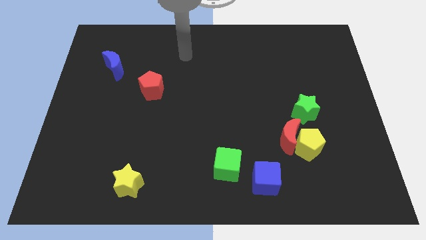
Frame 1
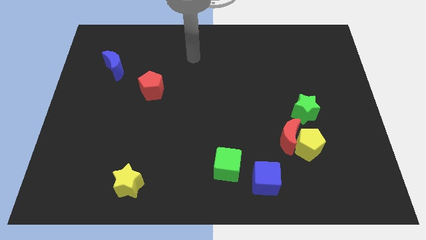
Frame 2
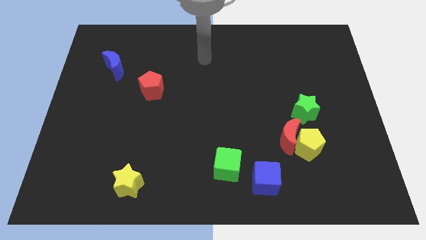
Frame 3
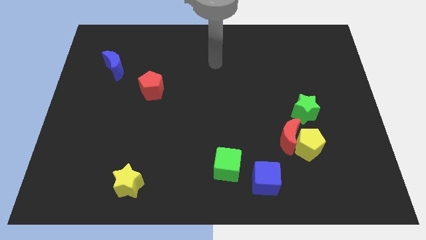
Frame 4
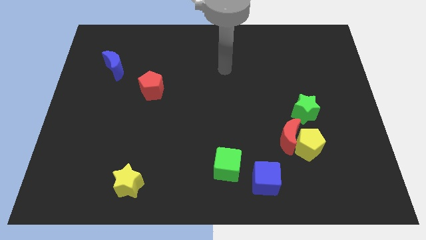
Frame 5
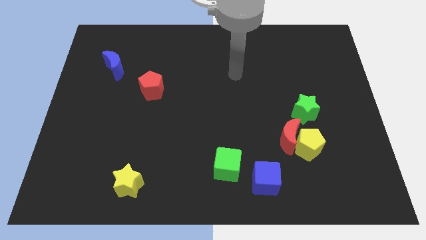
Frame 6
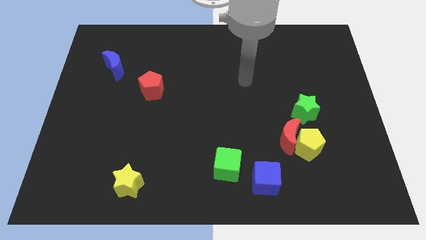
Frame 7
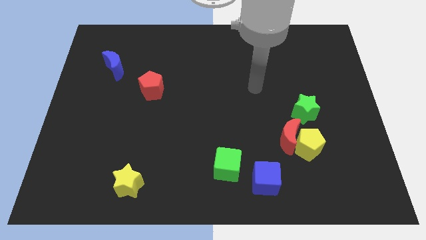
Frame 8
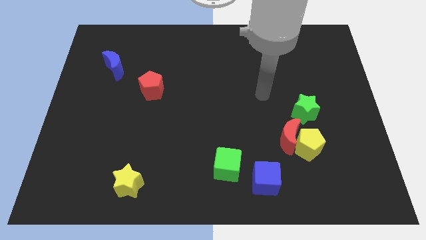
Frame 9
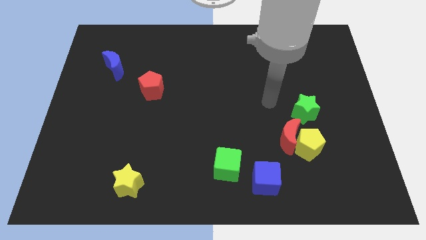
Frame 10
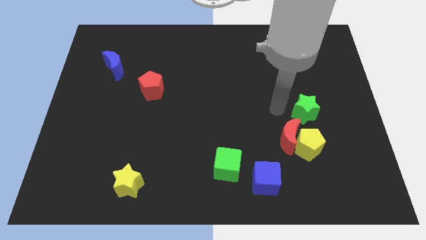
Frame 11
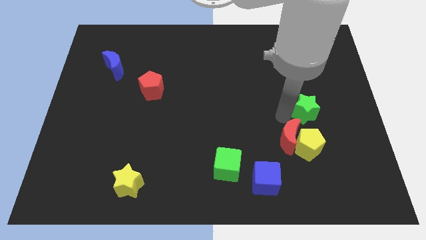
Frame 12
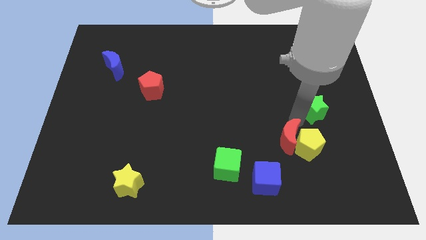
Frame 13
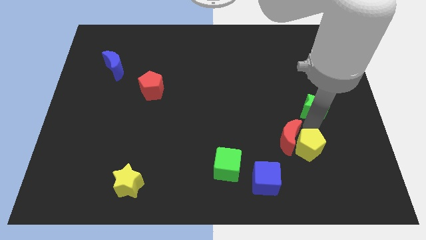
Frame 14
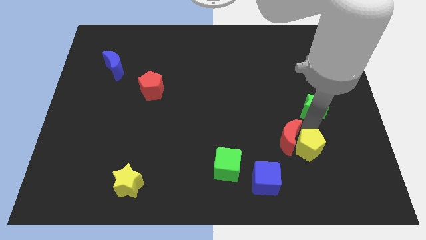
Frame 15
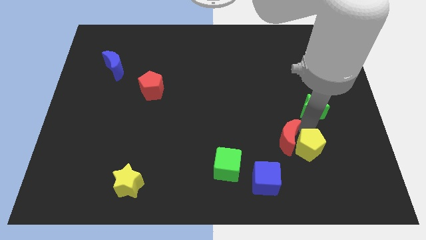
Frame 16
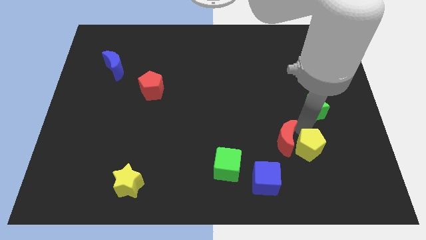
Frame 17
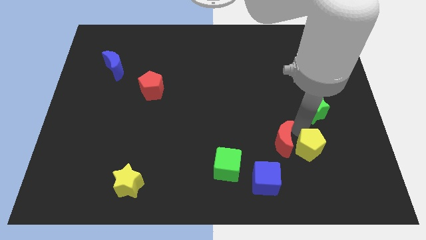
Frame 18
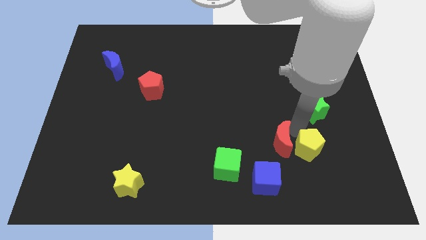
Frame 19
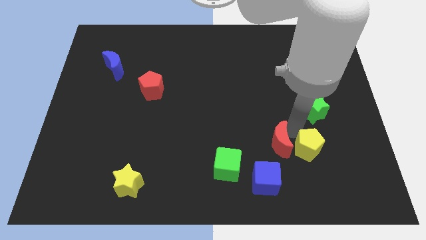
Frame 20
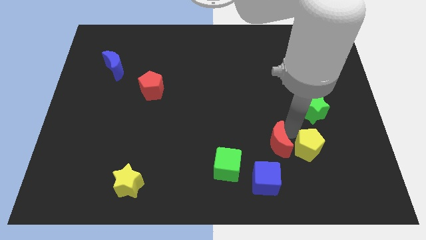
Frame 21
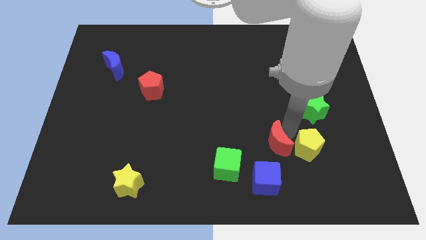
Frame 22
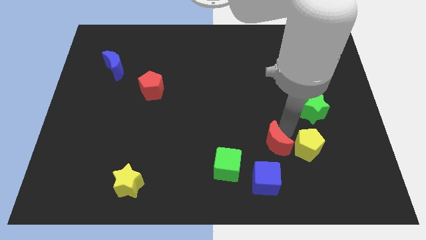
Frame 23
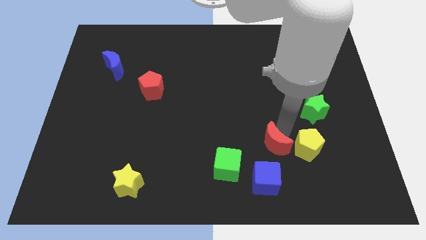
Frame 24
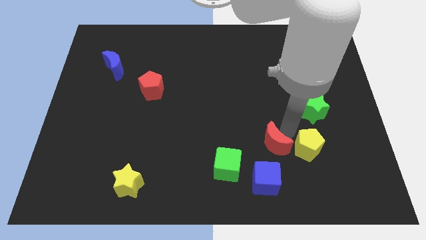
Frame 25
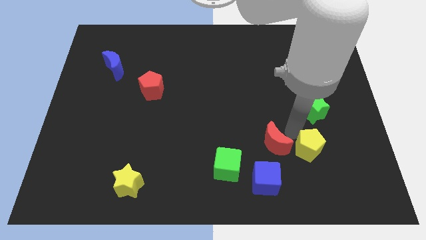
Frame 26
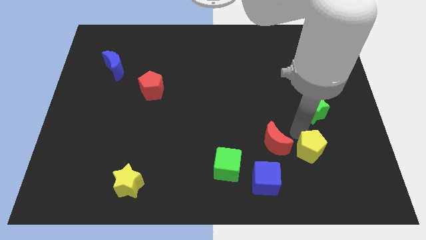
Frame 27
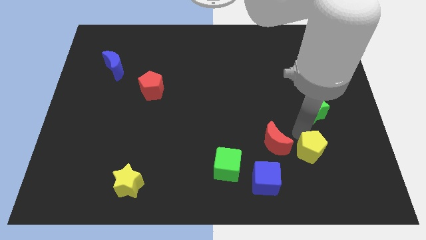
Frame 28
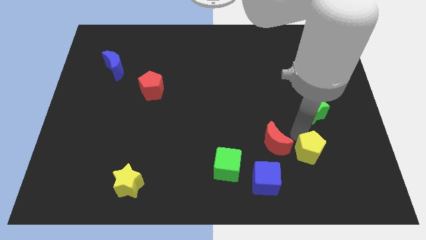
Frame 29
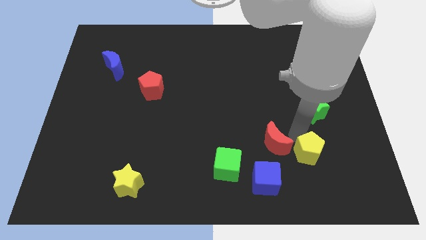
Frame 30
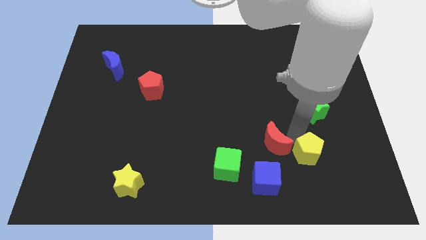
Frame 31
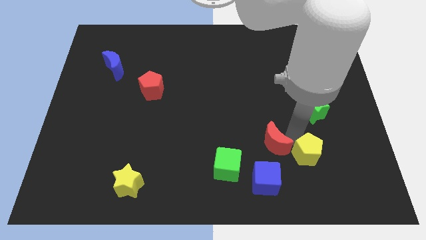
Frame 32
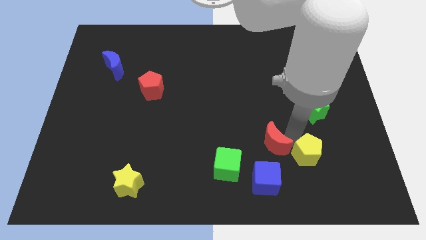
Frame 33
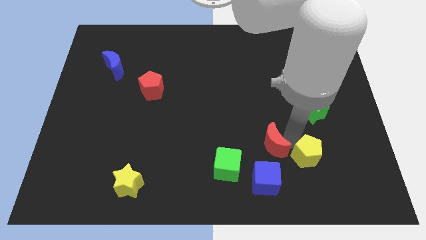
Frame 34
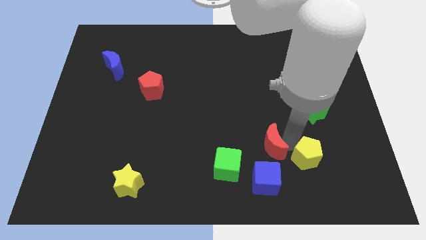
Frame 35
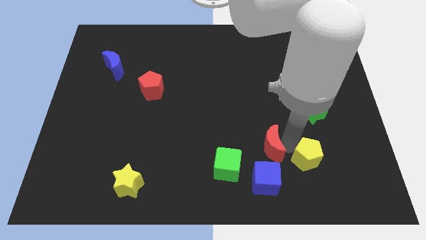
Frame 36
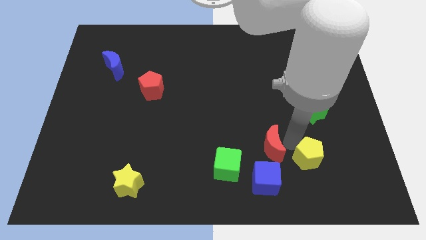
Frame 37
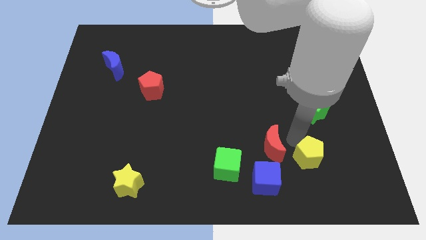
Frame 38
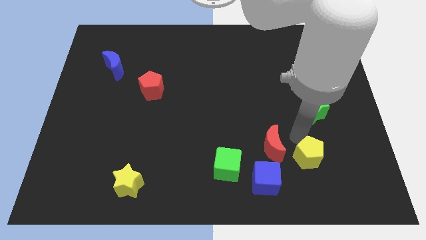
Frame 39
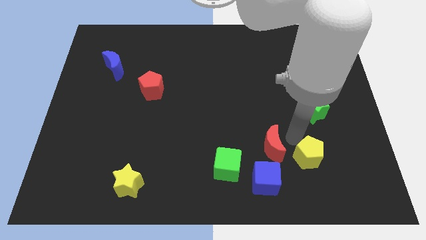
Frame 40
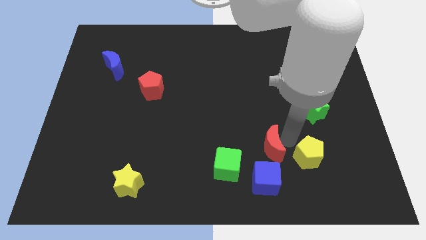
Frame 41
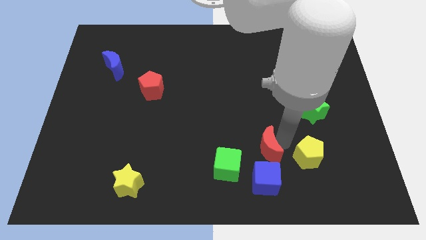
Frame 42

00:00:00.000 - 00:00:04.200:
move the red moon away from the yellow pentagon and green star

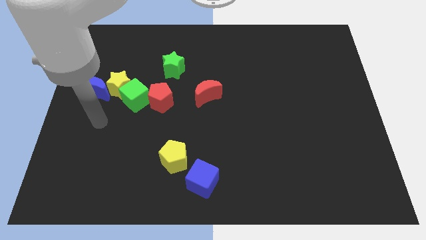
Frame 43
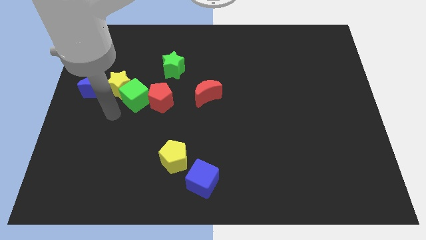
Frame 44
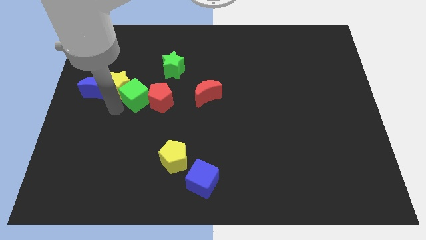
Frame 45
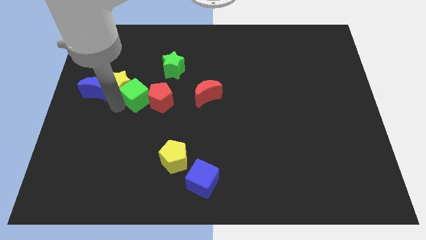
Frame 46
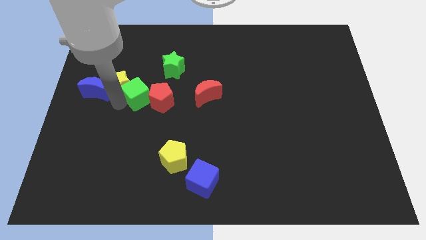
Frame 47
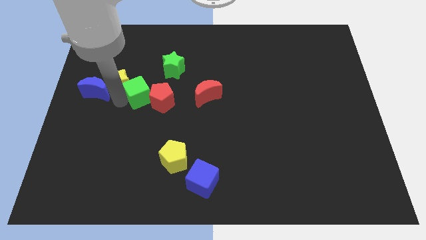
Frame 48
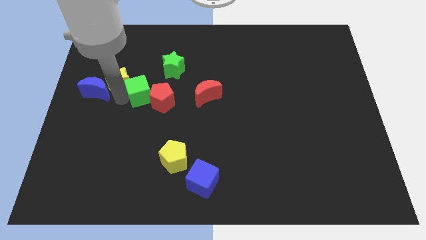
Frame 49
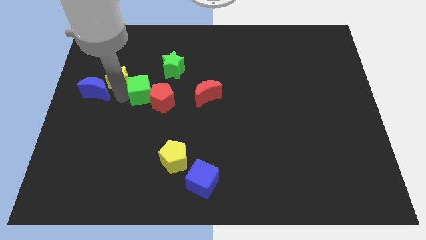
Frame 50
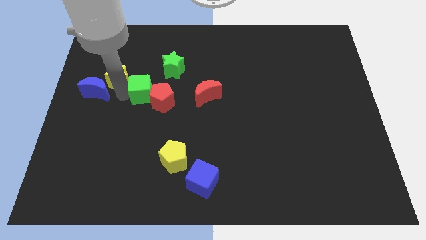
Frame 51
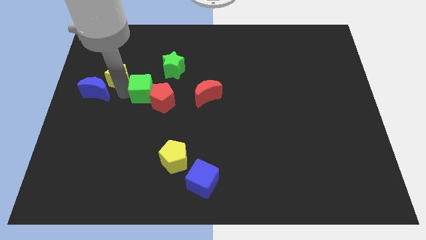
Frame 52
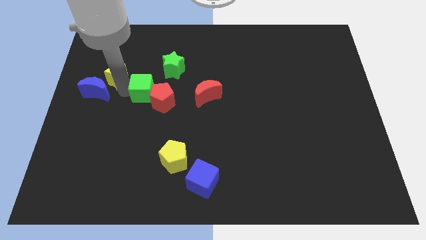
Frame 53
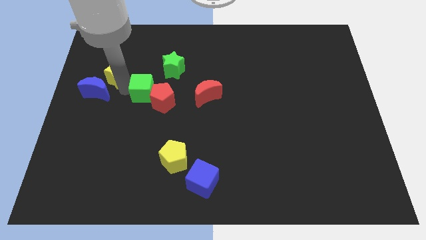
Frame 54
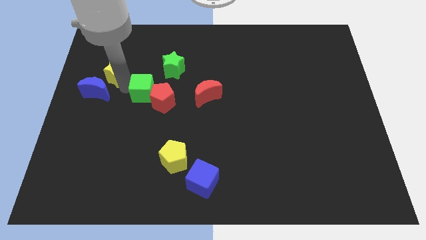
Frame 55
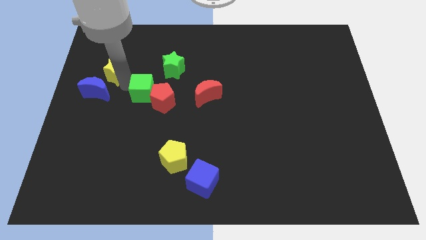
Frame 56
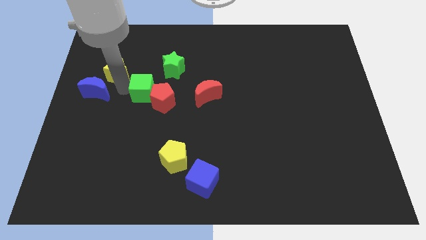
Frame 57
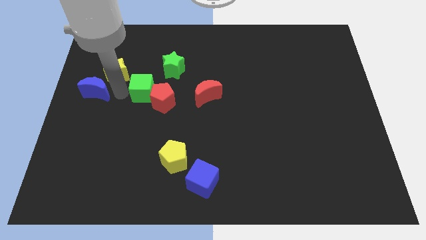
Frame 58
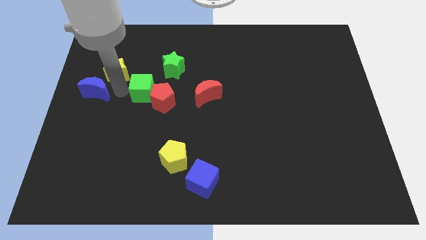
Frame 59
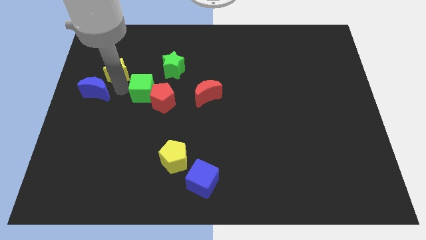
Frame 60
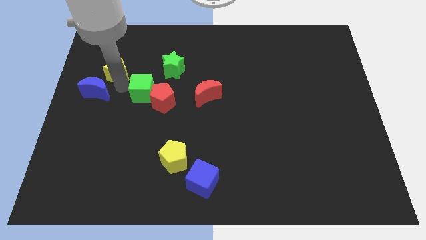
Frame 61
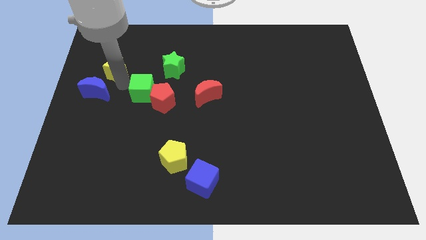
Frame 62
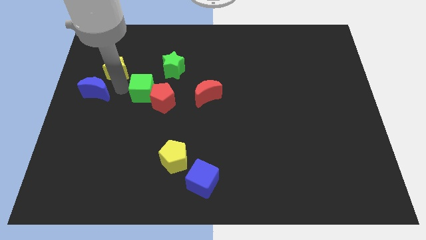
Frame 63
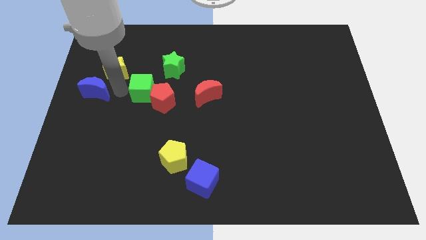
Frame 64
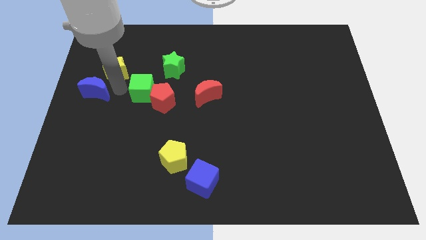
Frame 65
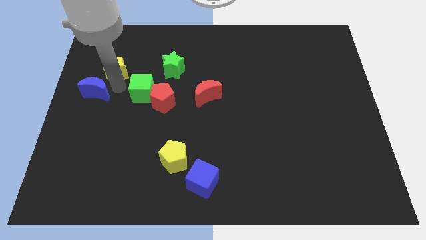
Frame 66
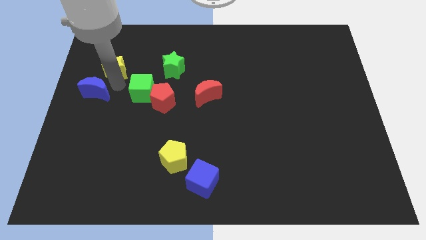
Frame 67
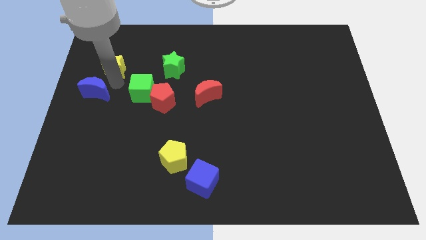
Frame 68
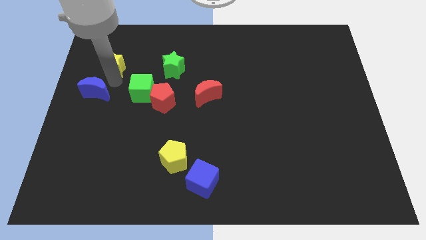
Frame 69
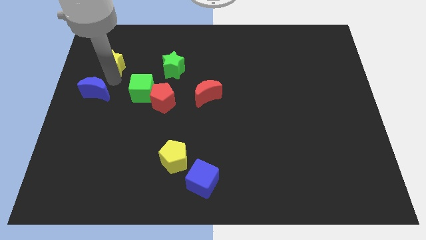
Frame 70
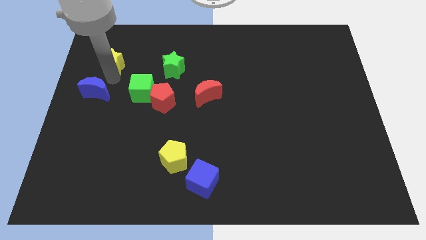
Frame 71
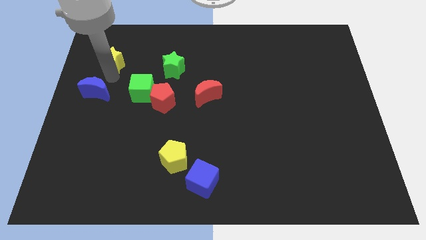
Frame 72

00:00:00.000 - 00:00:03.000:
separate the yellow star from the green cube and blue moon

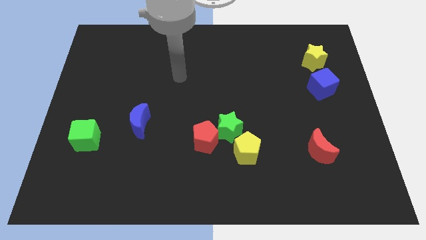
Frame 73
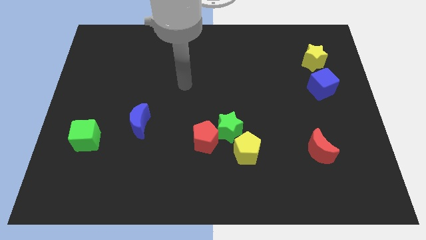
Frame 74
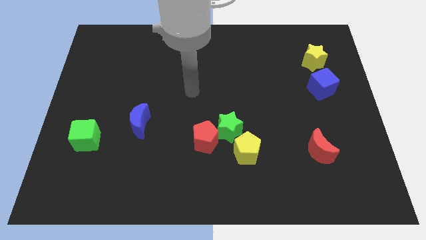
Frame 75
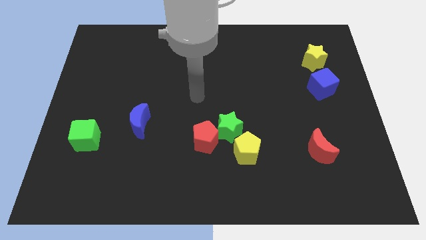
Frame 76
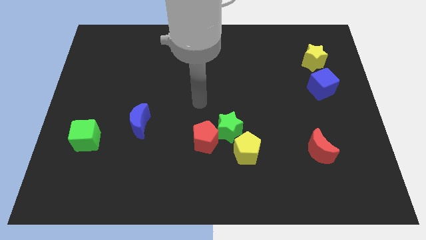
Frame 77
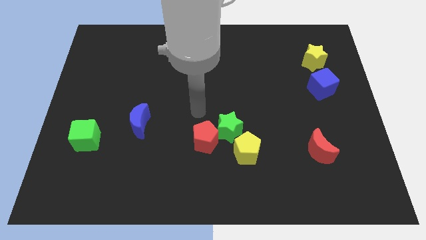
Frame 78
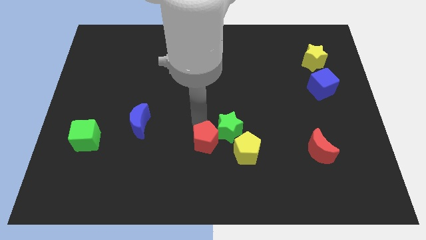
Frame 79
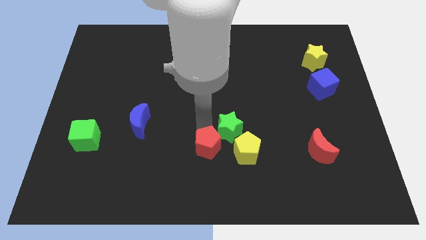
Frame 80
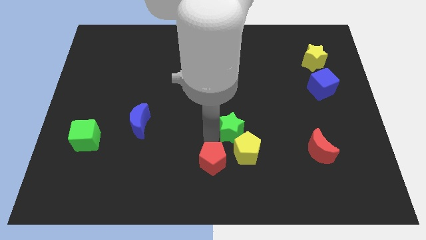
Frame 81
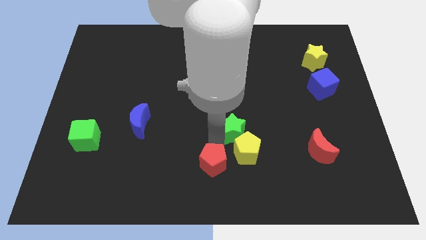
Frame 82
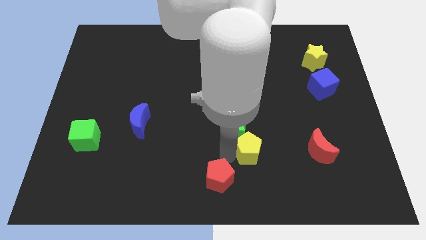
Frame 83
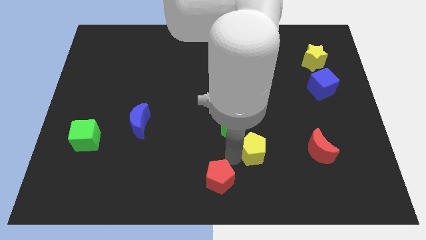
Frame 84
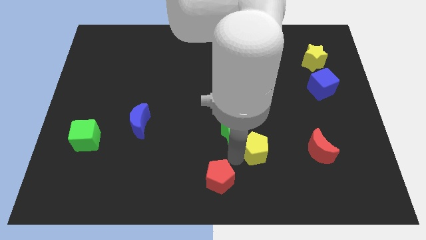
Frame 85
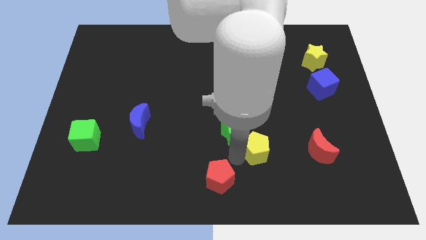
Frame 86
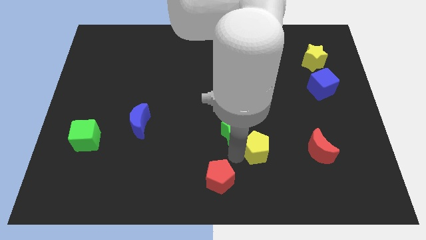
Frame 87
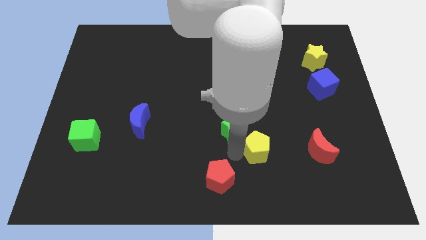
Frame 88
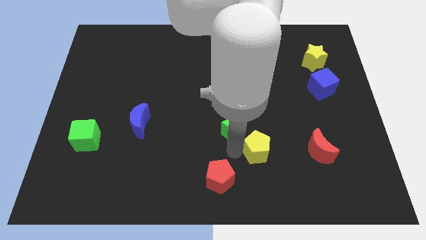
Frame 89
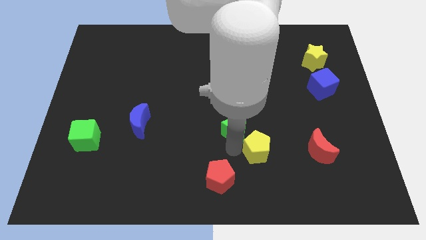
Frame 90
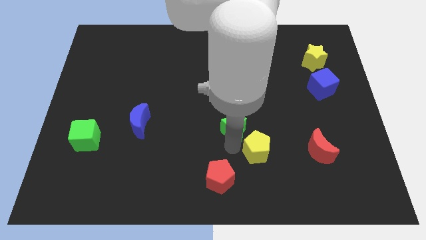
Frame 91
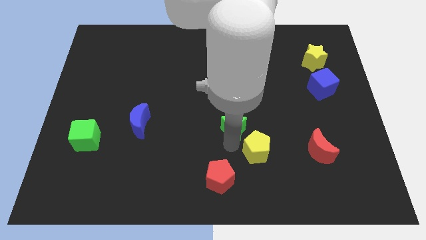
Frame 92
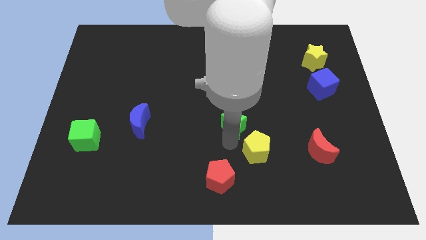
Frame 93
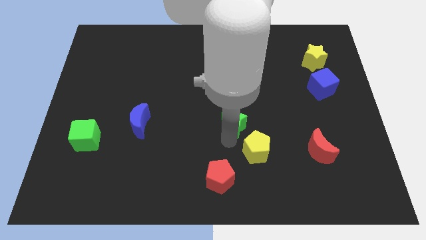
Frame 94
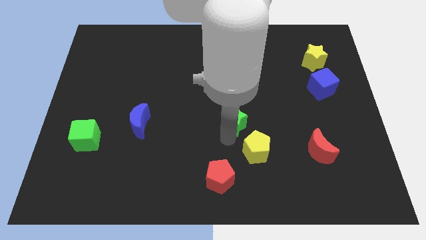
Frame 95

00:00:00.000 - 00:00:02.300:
separate the green star from the red pentagon and yellow pentagon
